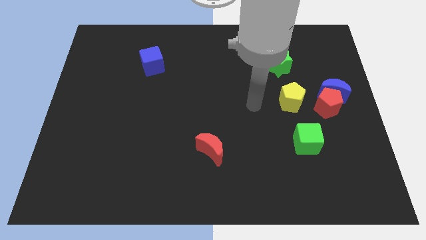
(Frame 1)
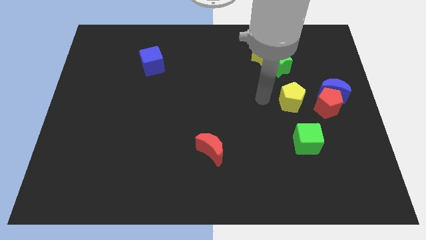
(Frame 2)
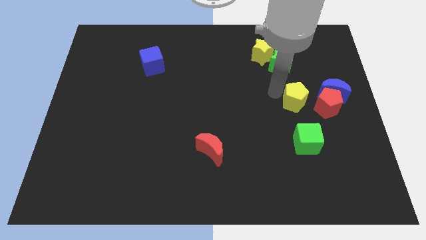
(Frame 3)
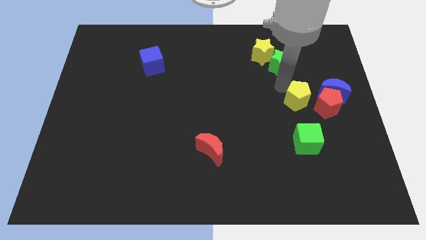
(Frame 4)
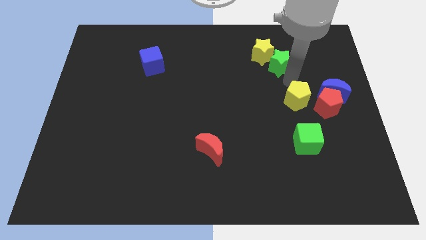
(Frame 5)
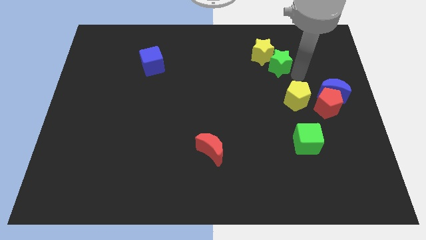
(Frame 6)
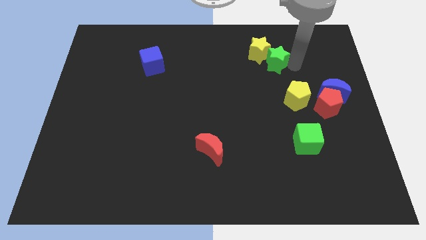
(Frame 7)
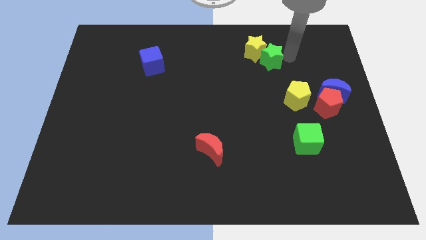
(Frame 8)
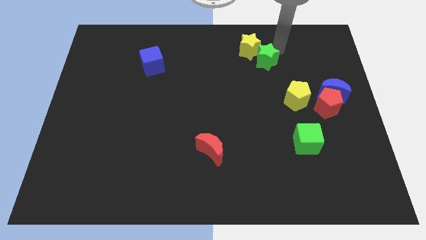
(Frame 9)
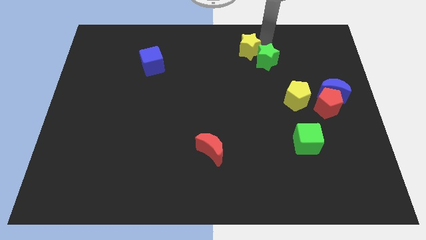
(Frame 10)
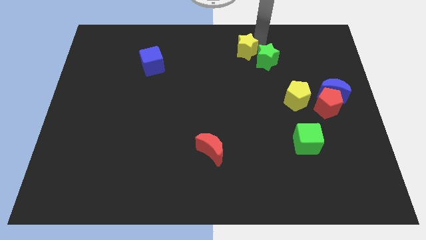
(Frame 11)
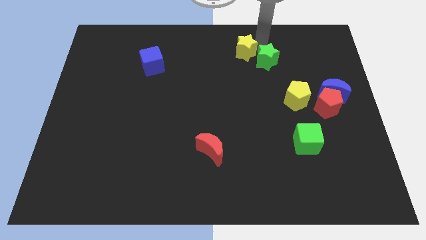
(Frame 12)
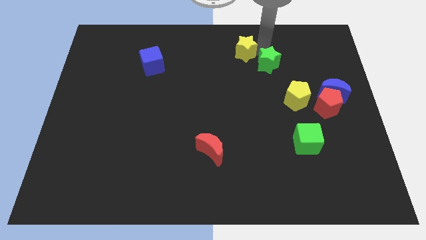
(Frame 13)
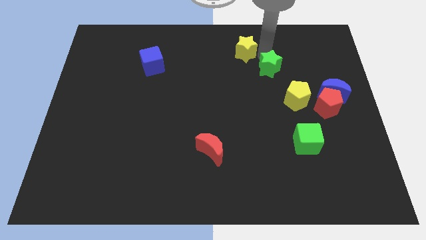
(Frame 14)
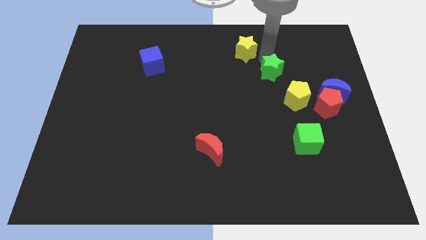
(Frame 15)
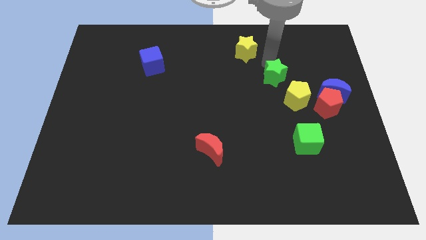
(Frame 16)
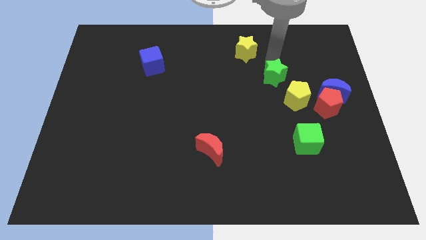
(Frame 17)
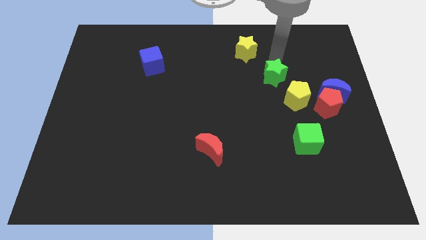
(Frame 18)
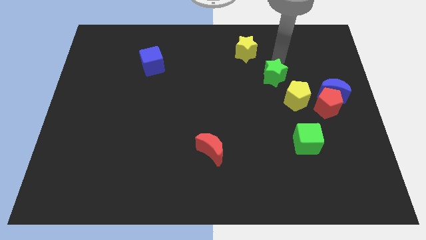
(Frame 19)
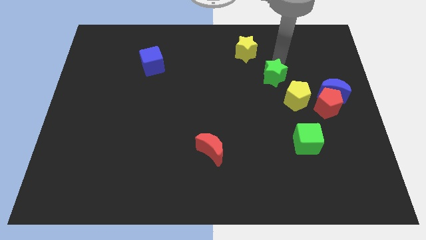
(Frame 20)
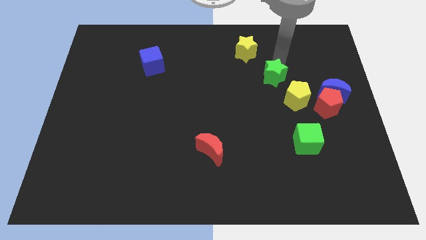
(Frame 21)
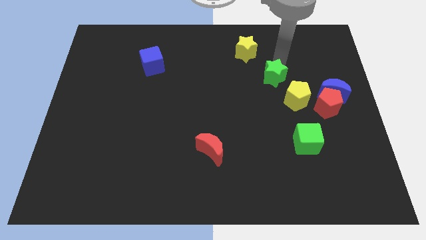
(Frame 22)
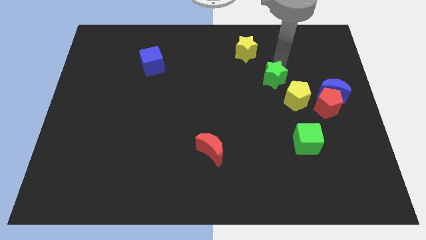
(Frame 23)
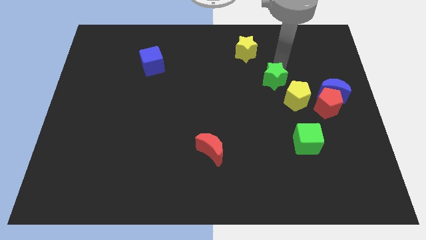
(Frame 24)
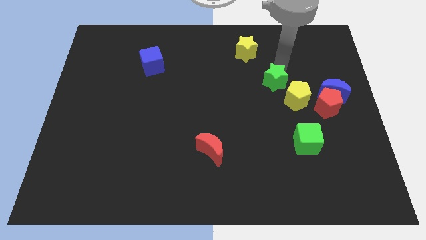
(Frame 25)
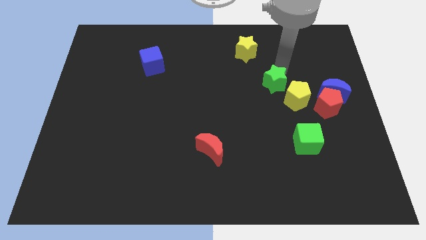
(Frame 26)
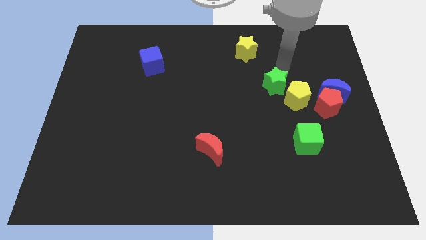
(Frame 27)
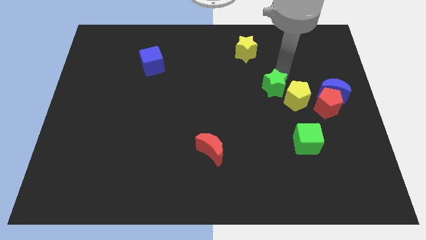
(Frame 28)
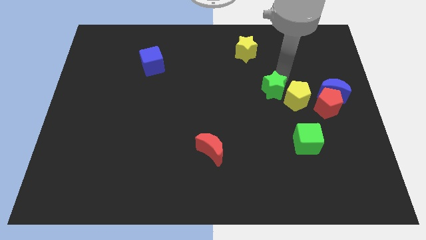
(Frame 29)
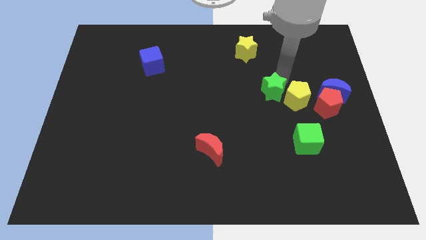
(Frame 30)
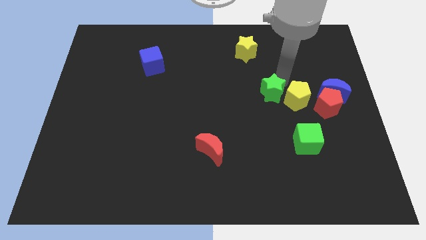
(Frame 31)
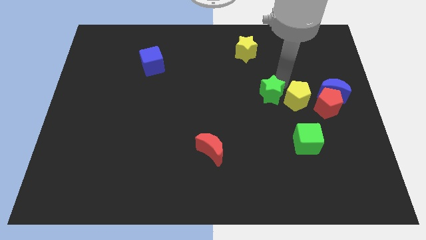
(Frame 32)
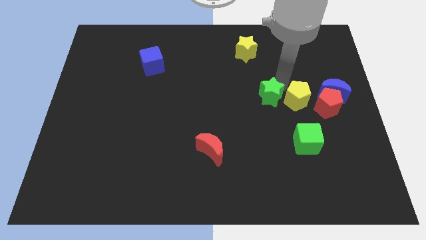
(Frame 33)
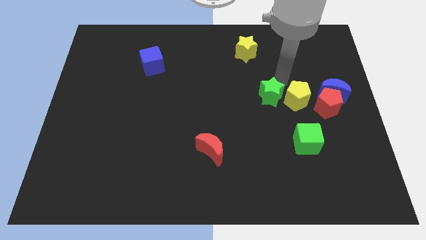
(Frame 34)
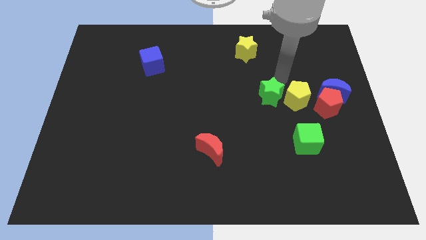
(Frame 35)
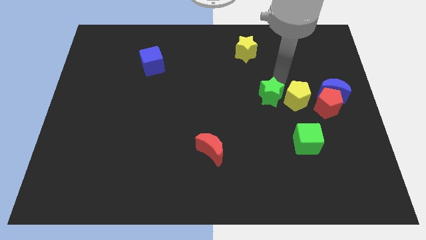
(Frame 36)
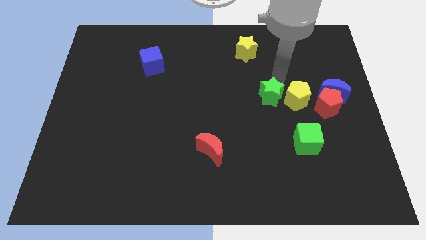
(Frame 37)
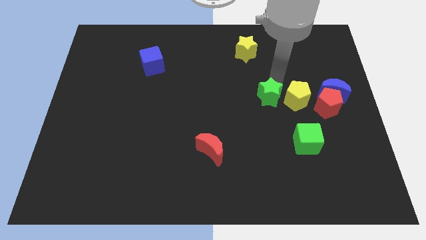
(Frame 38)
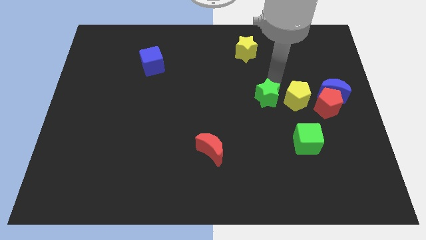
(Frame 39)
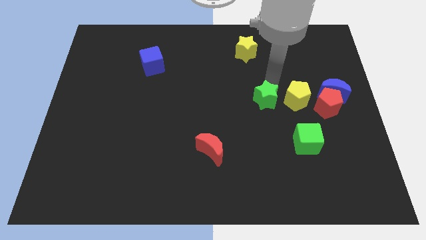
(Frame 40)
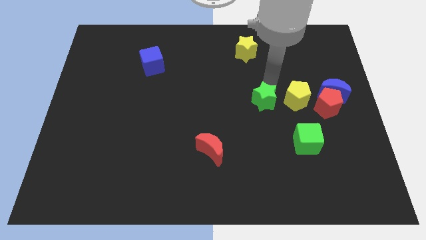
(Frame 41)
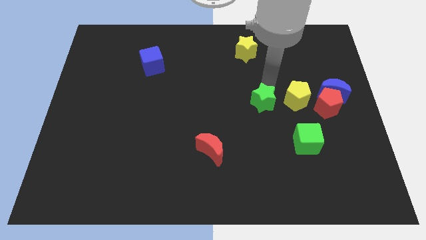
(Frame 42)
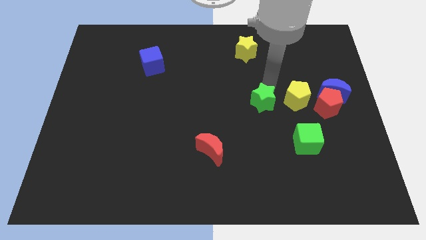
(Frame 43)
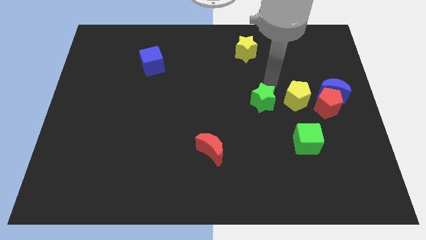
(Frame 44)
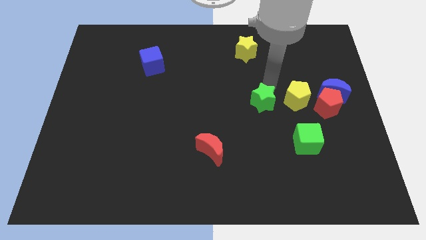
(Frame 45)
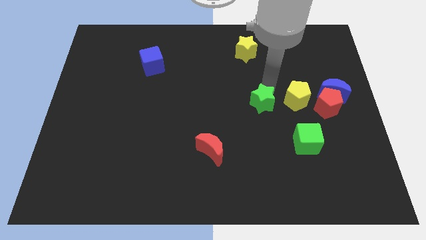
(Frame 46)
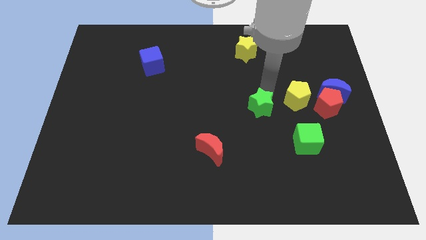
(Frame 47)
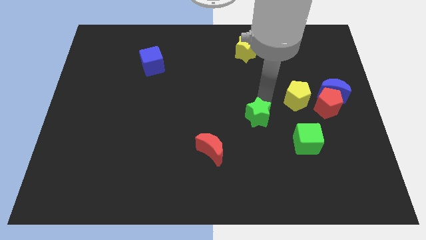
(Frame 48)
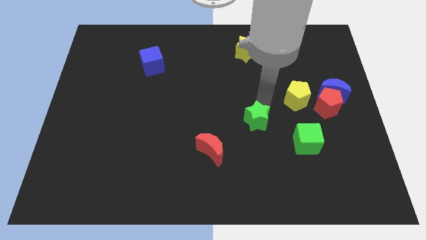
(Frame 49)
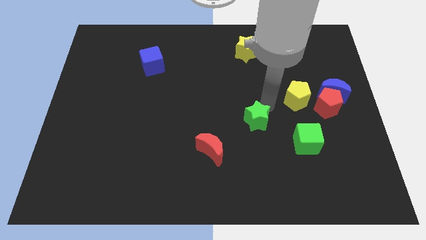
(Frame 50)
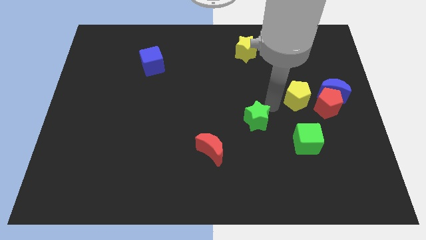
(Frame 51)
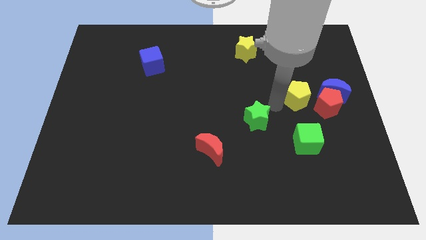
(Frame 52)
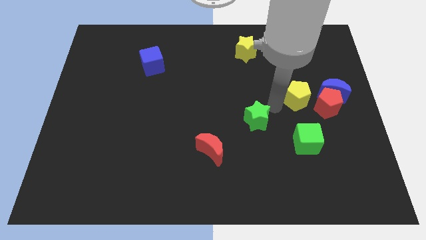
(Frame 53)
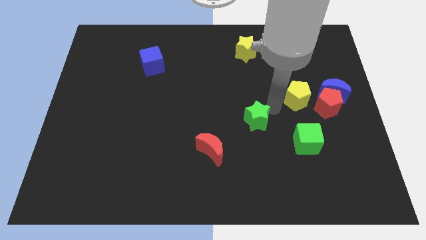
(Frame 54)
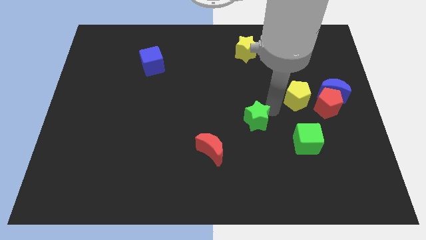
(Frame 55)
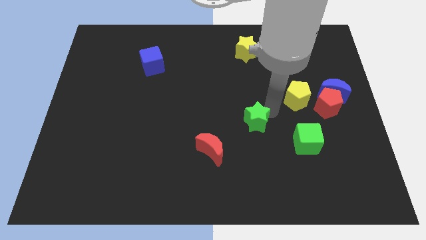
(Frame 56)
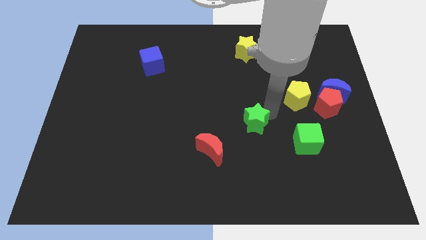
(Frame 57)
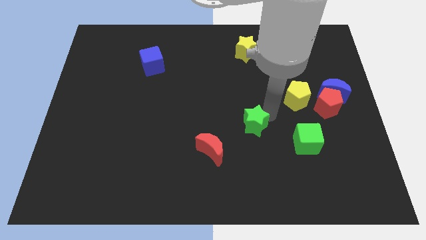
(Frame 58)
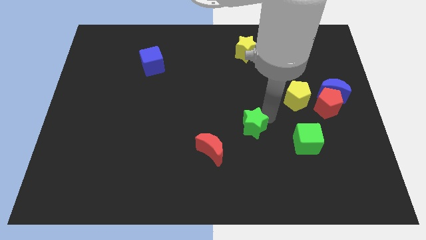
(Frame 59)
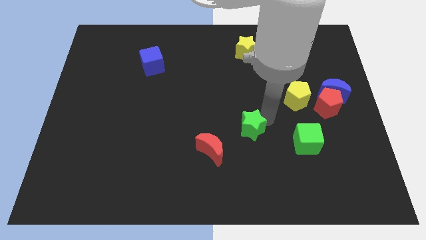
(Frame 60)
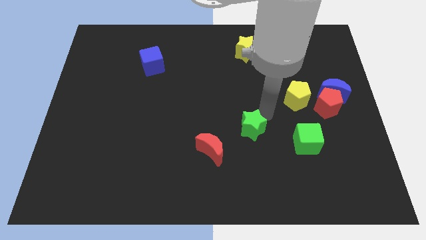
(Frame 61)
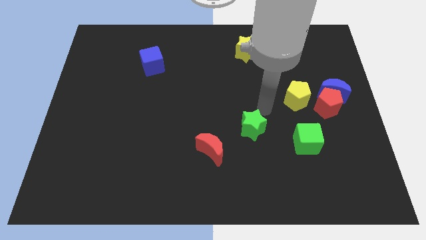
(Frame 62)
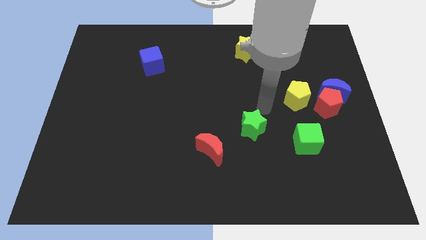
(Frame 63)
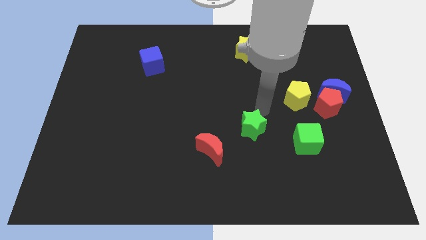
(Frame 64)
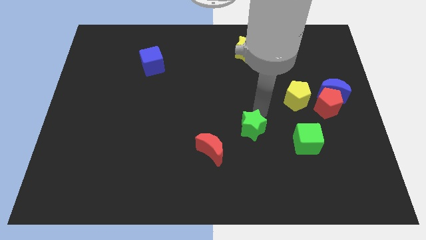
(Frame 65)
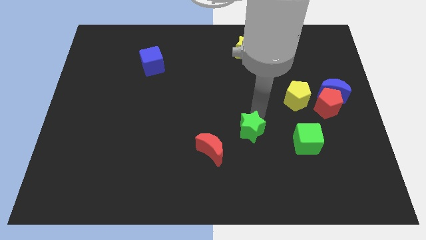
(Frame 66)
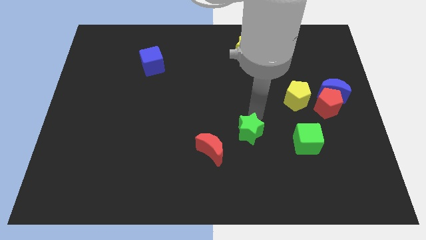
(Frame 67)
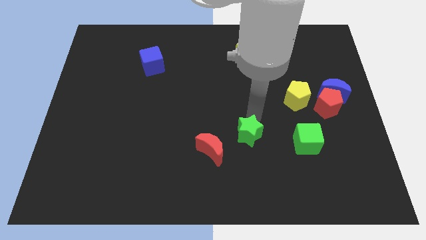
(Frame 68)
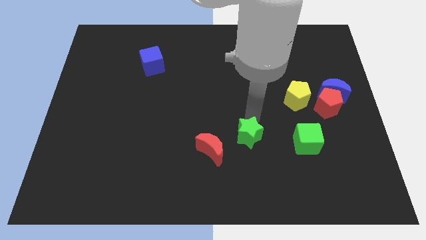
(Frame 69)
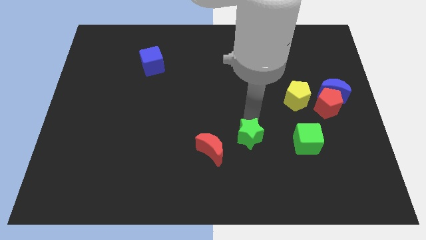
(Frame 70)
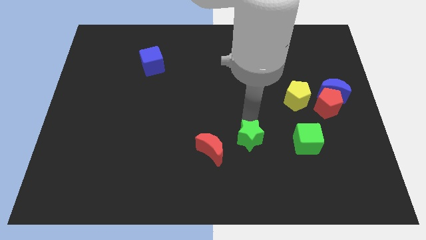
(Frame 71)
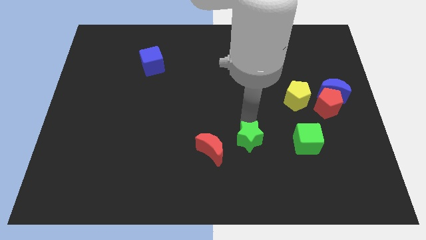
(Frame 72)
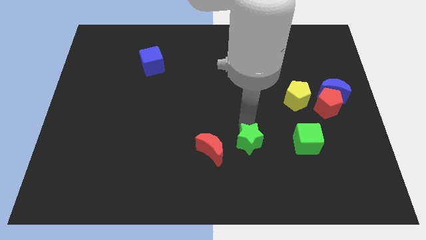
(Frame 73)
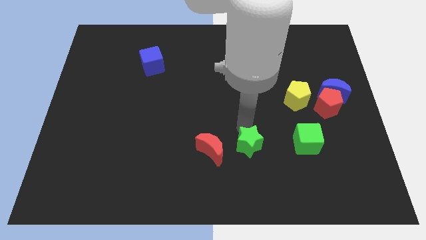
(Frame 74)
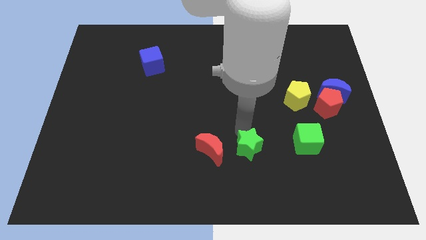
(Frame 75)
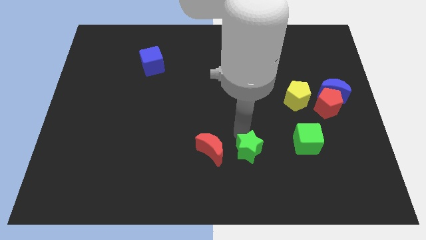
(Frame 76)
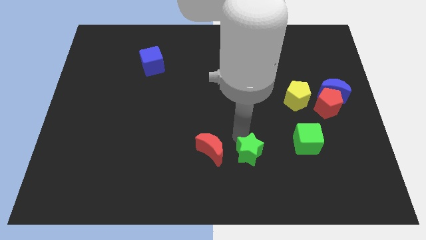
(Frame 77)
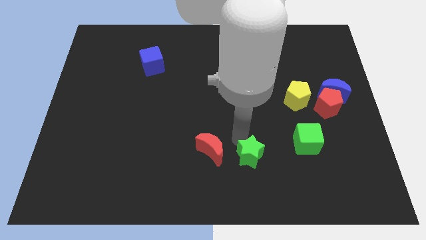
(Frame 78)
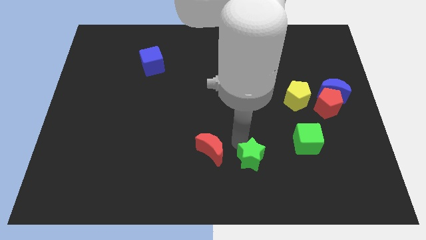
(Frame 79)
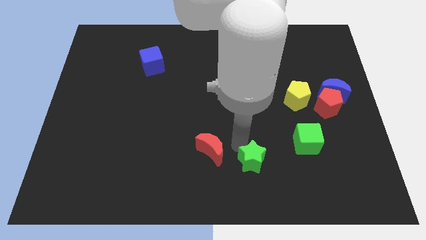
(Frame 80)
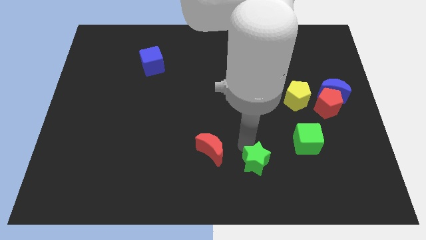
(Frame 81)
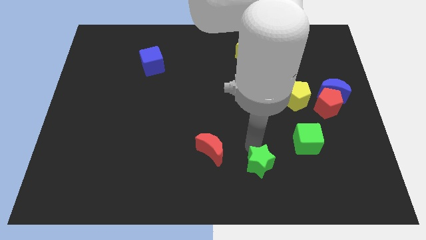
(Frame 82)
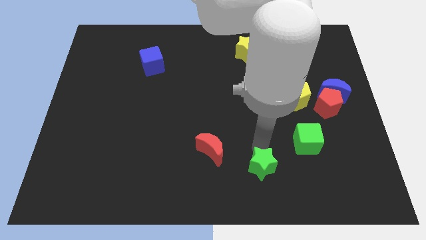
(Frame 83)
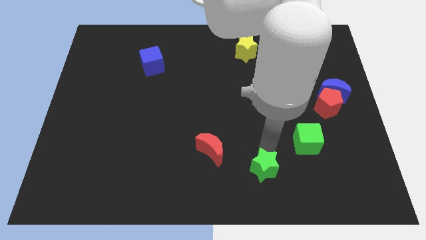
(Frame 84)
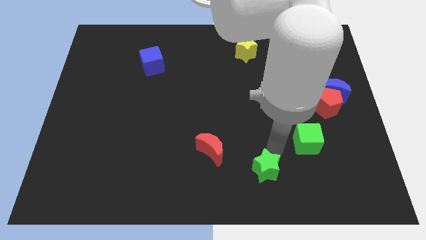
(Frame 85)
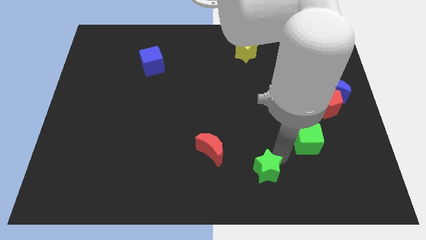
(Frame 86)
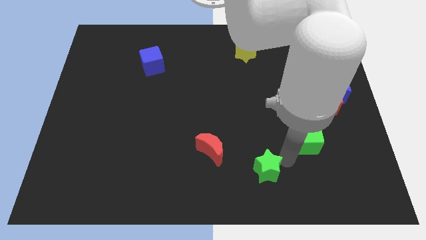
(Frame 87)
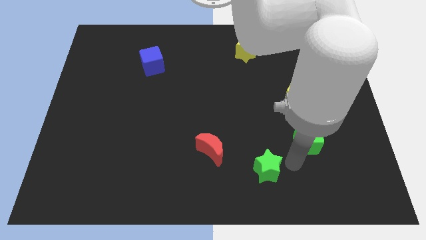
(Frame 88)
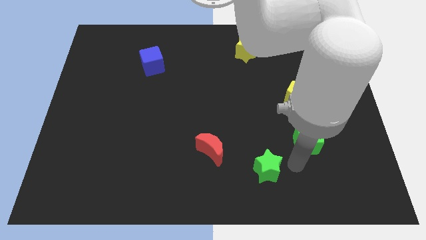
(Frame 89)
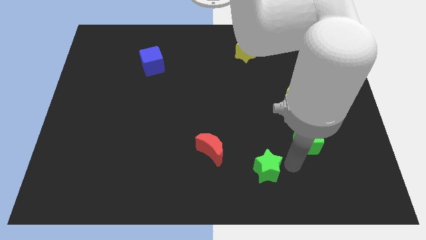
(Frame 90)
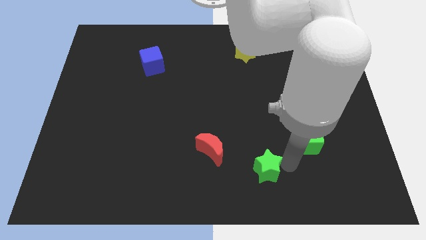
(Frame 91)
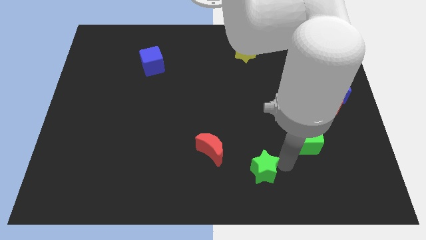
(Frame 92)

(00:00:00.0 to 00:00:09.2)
move the green star to the bottom side
